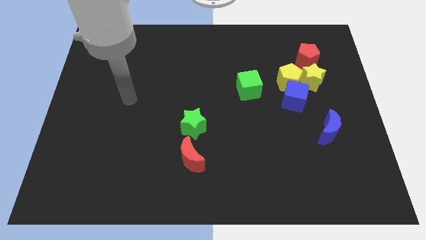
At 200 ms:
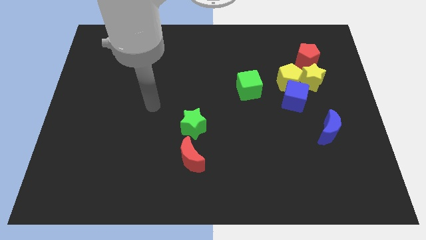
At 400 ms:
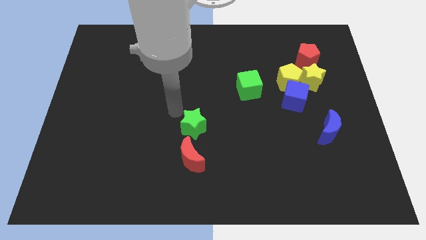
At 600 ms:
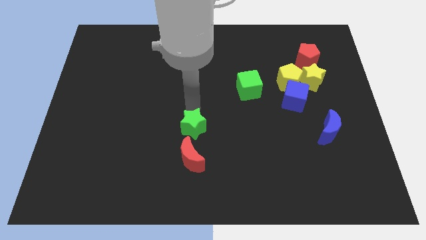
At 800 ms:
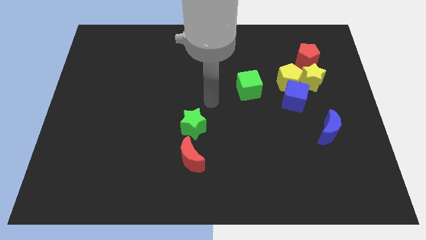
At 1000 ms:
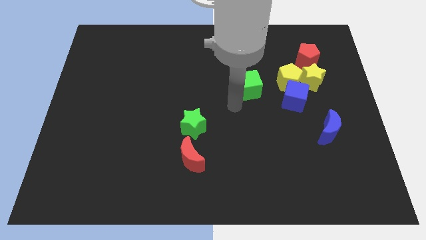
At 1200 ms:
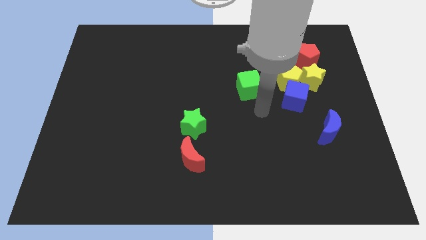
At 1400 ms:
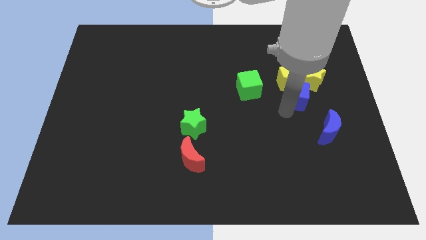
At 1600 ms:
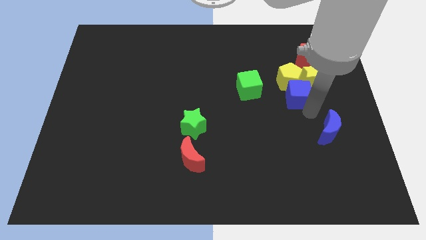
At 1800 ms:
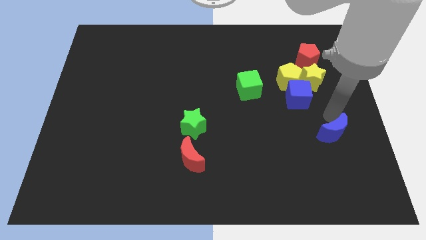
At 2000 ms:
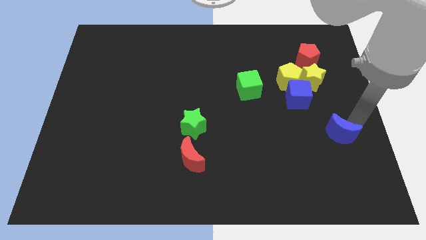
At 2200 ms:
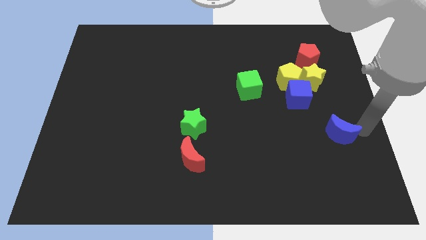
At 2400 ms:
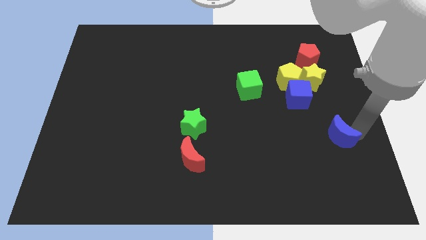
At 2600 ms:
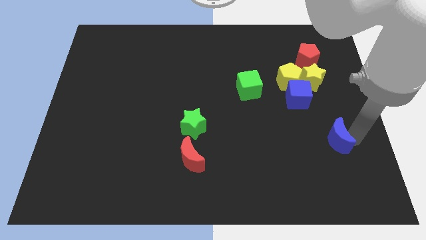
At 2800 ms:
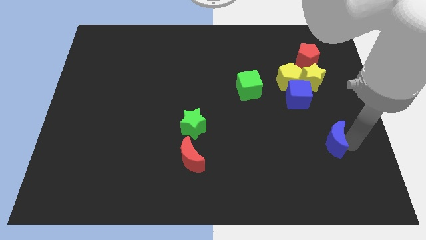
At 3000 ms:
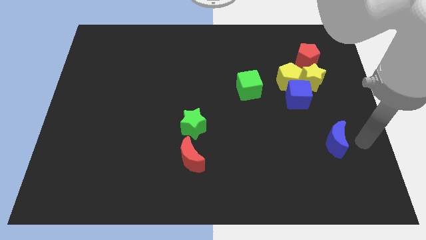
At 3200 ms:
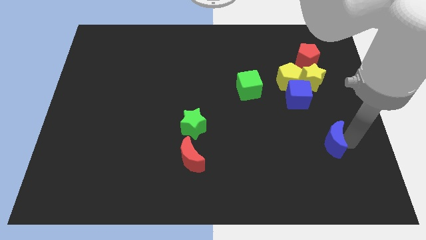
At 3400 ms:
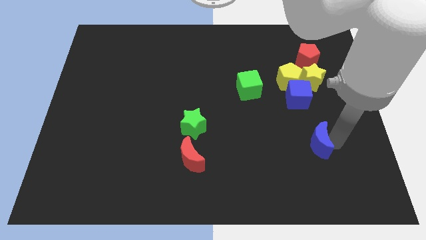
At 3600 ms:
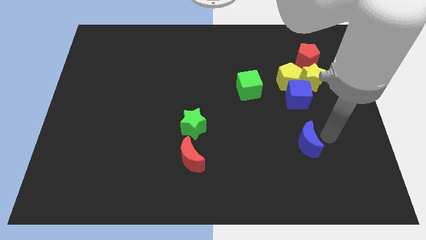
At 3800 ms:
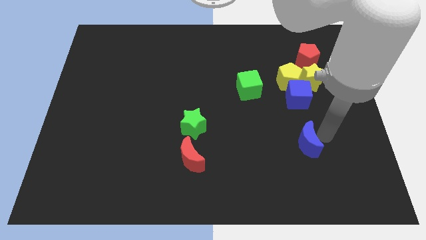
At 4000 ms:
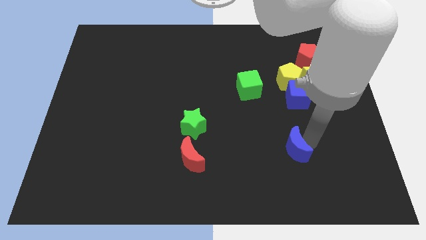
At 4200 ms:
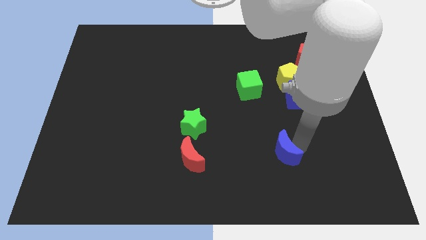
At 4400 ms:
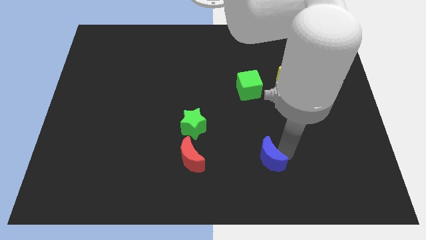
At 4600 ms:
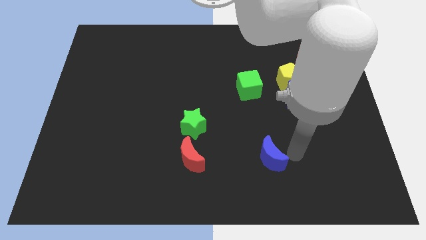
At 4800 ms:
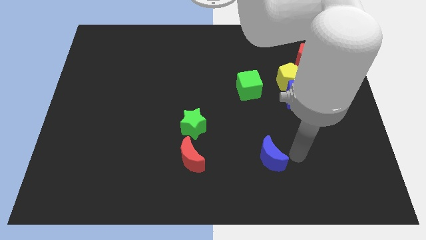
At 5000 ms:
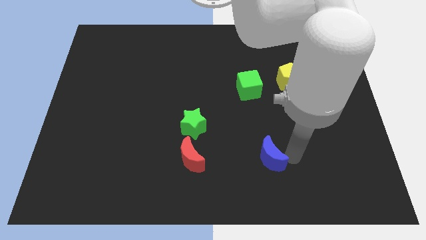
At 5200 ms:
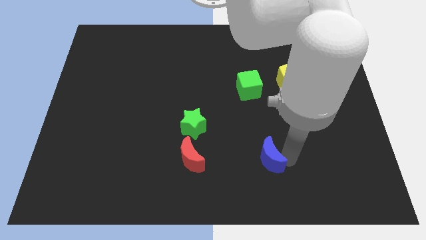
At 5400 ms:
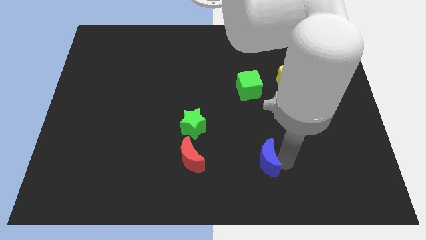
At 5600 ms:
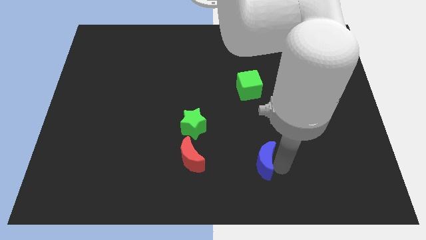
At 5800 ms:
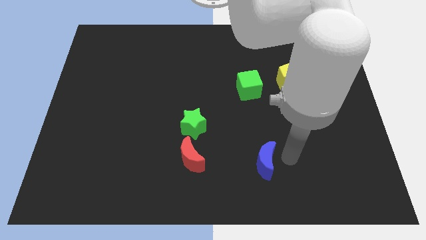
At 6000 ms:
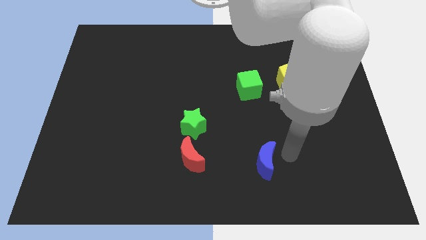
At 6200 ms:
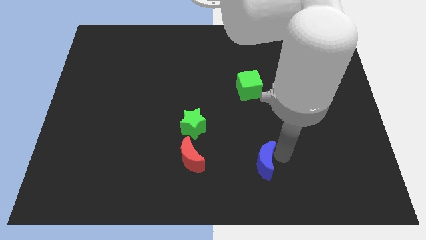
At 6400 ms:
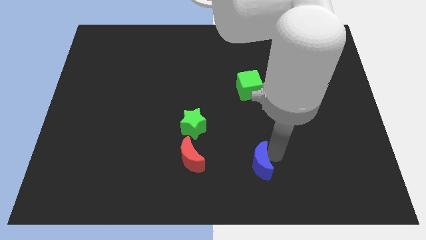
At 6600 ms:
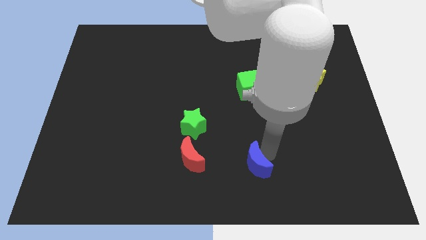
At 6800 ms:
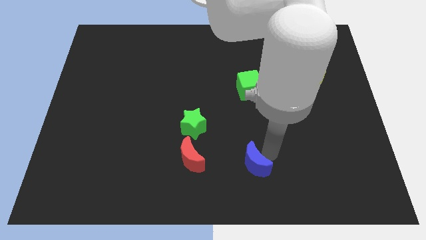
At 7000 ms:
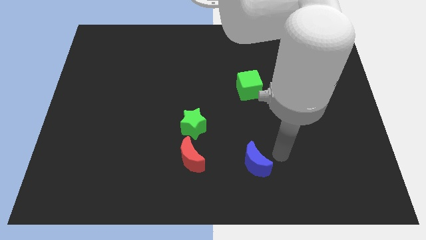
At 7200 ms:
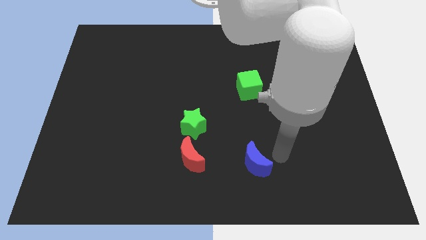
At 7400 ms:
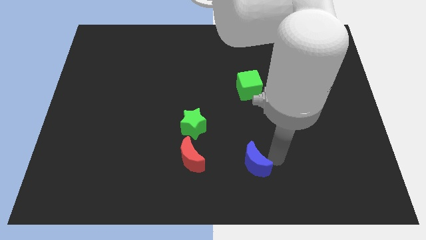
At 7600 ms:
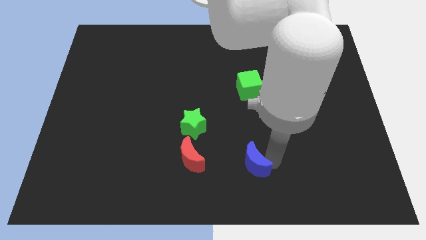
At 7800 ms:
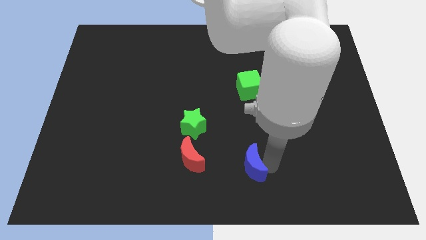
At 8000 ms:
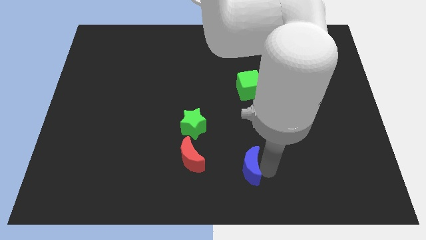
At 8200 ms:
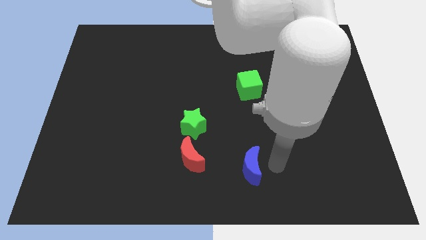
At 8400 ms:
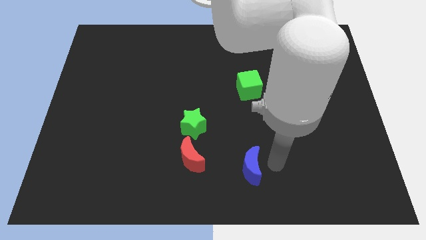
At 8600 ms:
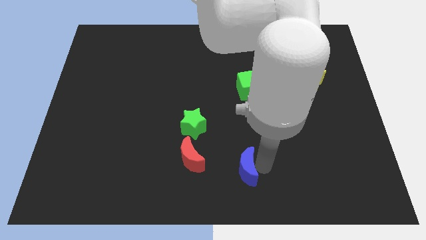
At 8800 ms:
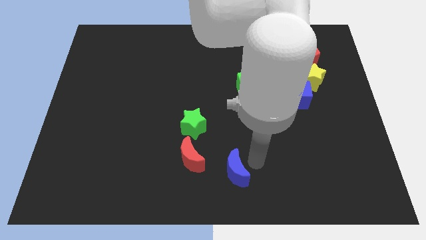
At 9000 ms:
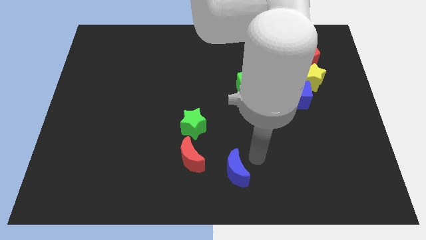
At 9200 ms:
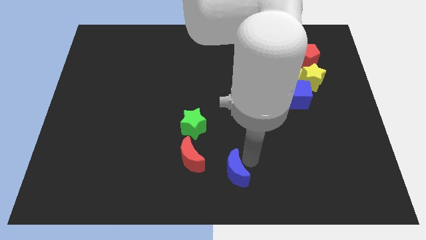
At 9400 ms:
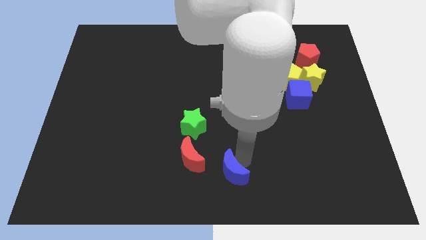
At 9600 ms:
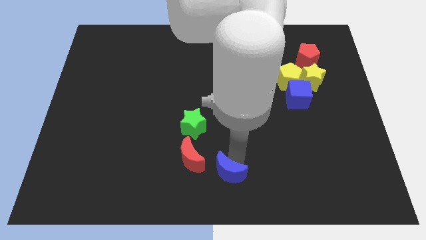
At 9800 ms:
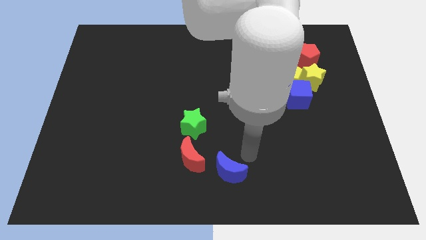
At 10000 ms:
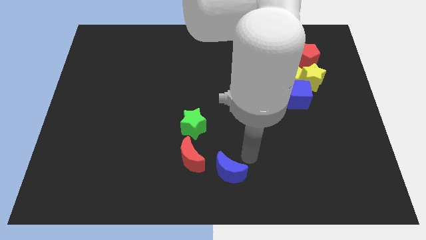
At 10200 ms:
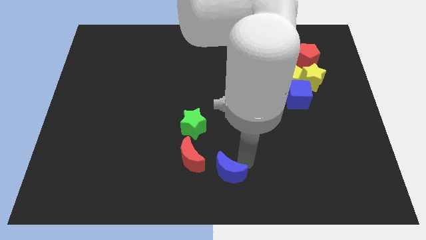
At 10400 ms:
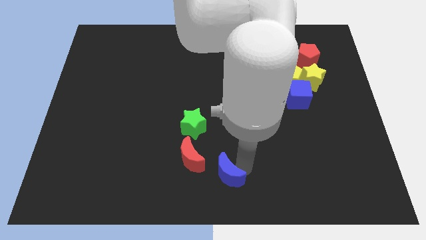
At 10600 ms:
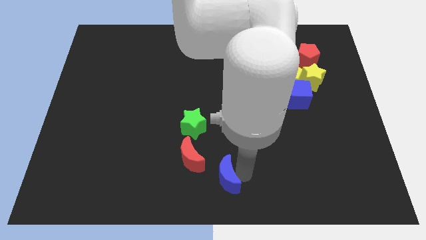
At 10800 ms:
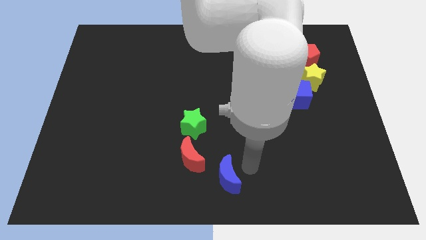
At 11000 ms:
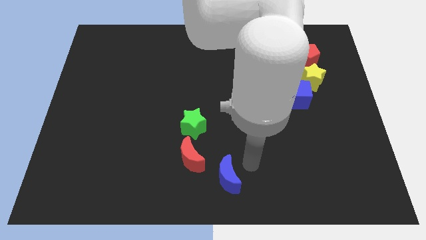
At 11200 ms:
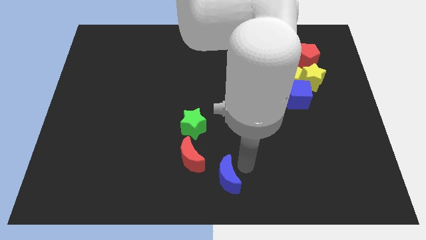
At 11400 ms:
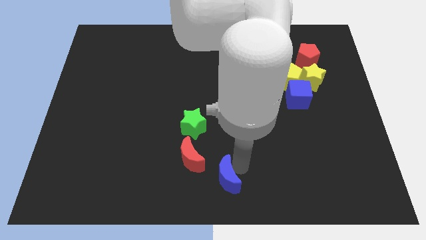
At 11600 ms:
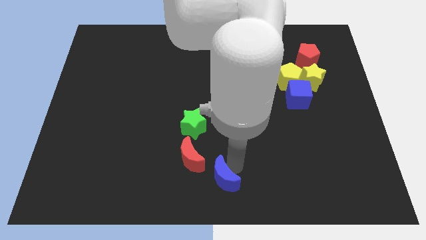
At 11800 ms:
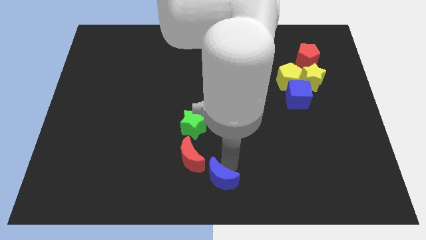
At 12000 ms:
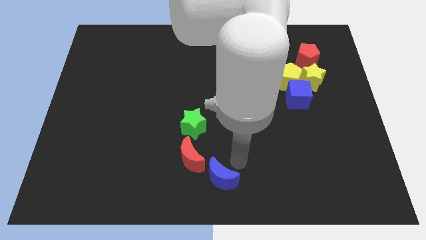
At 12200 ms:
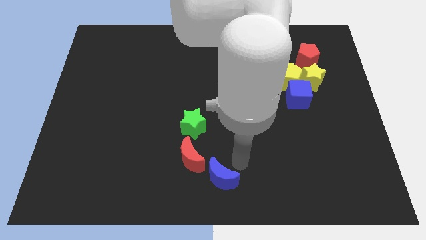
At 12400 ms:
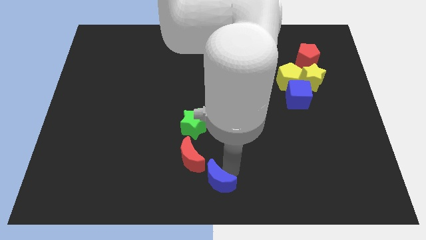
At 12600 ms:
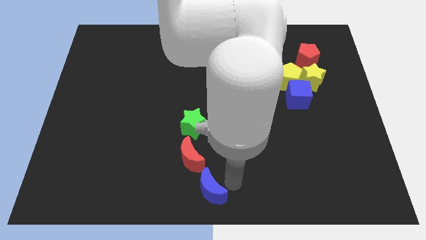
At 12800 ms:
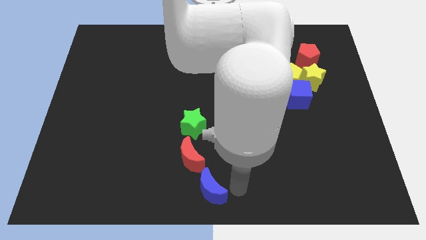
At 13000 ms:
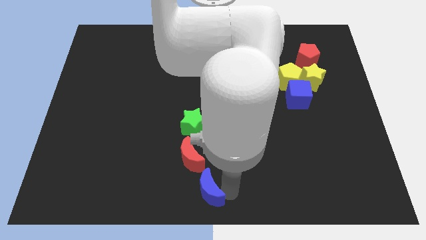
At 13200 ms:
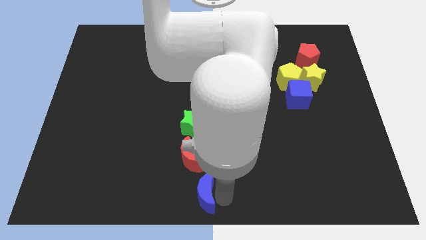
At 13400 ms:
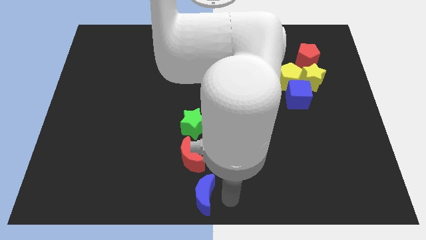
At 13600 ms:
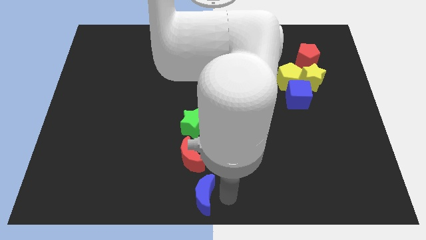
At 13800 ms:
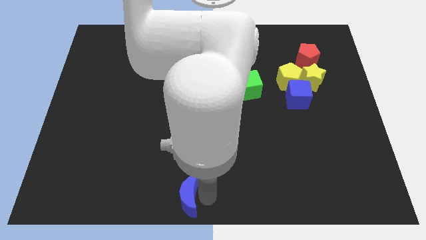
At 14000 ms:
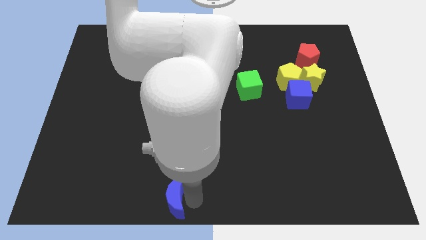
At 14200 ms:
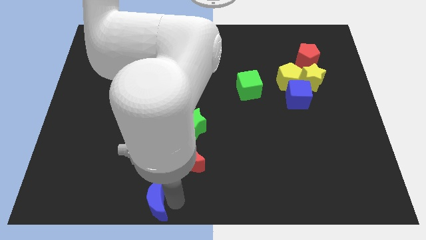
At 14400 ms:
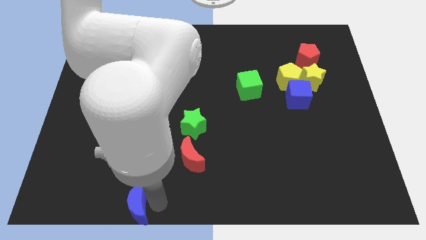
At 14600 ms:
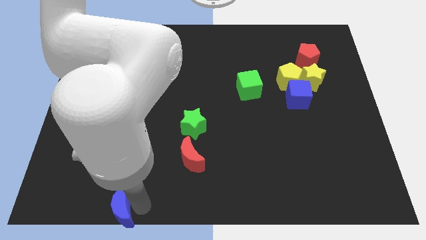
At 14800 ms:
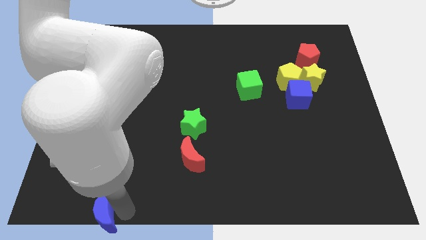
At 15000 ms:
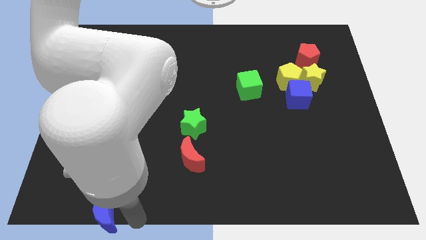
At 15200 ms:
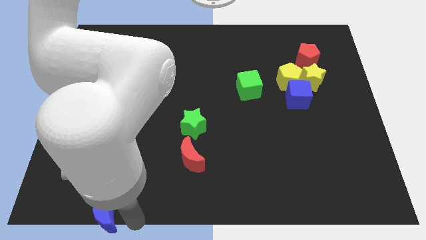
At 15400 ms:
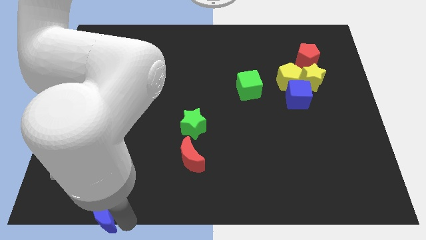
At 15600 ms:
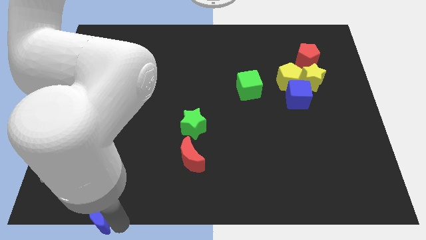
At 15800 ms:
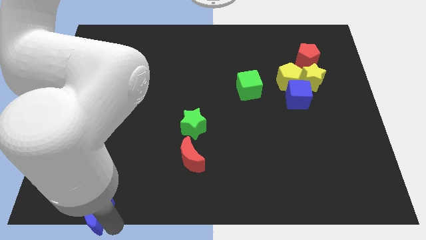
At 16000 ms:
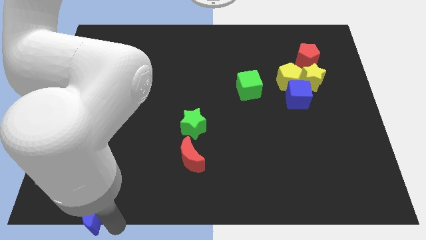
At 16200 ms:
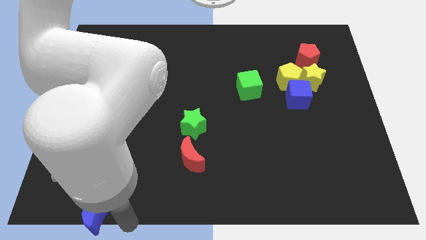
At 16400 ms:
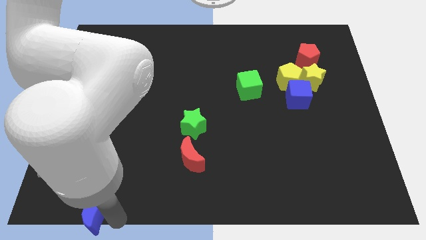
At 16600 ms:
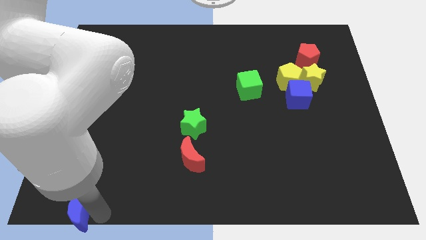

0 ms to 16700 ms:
slide the blue moon to the lower left corner
